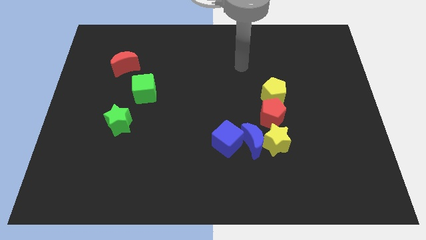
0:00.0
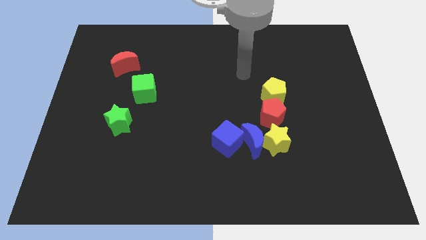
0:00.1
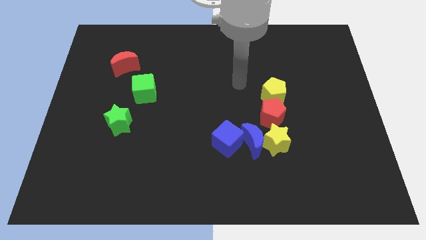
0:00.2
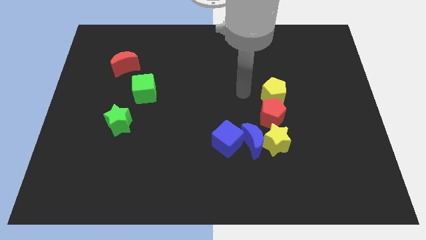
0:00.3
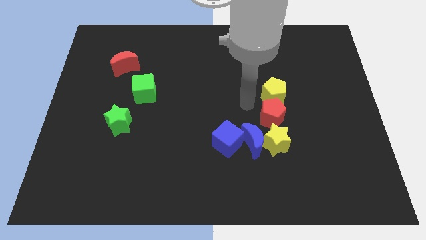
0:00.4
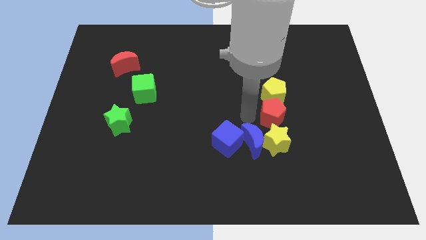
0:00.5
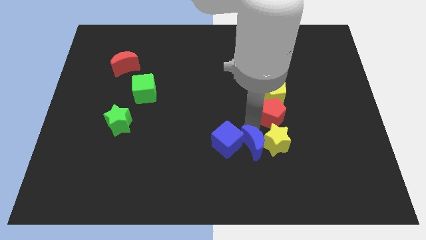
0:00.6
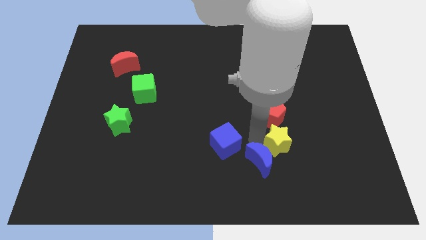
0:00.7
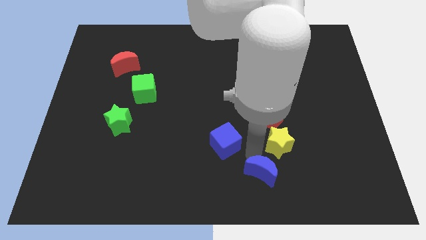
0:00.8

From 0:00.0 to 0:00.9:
move the blue cube away from the blue moon

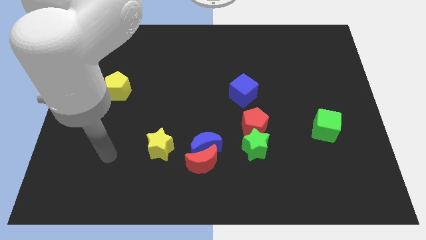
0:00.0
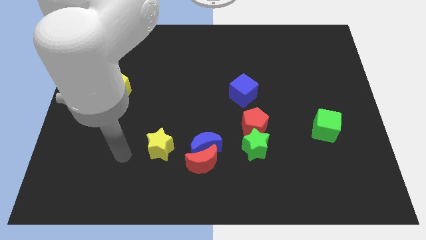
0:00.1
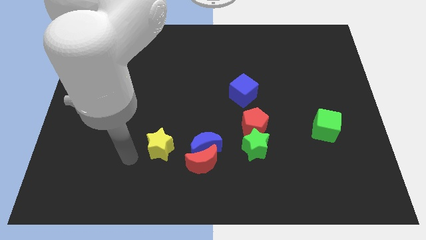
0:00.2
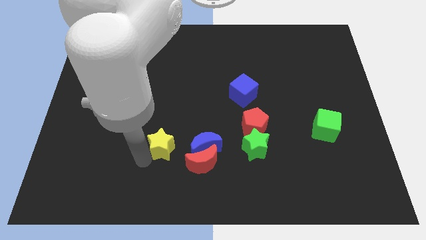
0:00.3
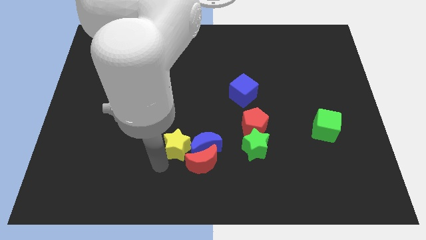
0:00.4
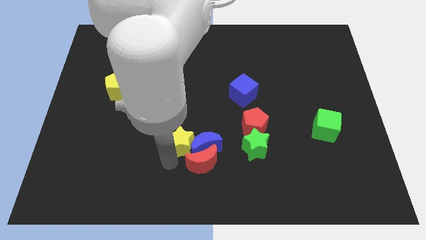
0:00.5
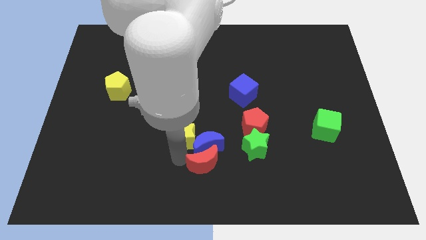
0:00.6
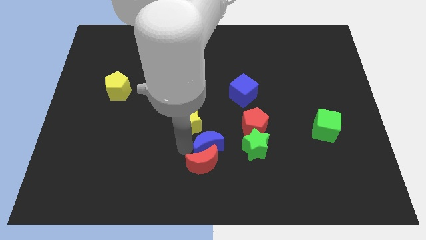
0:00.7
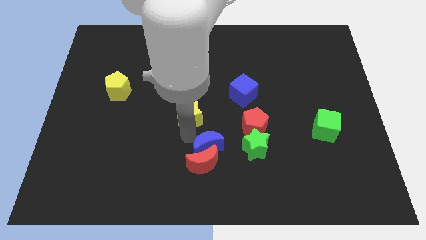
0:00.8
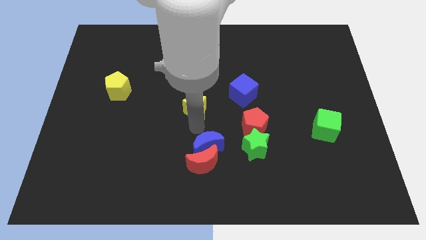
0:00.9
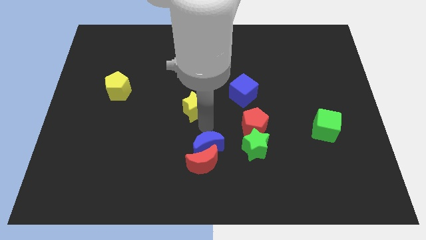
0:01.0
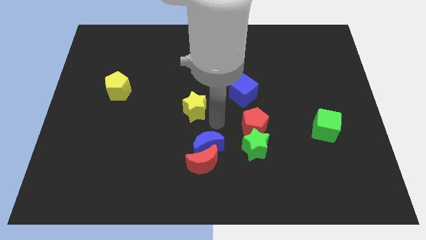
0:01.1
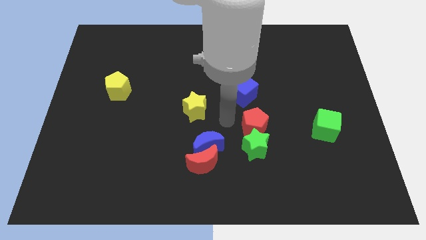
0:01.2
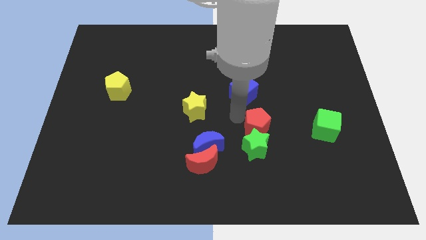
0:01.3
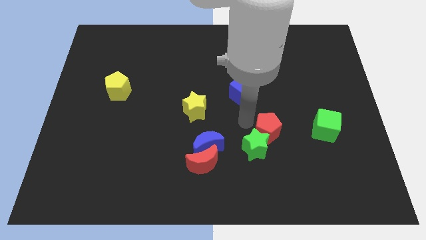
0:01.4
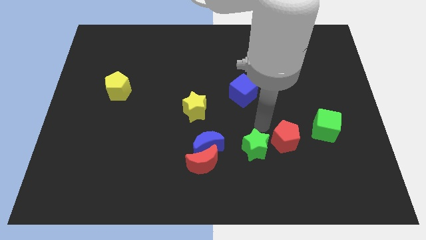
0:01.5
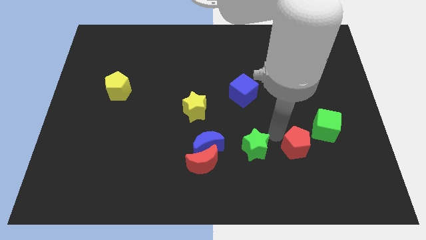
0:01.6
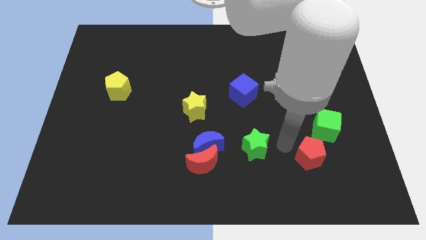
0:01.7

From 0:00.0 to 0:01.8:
move the green star away from the red pentagon

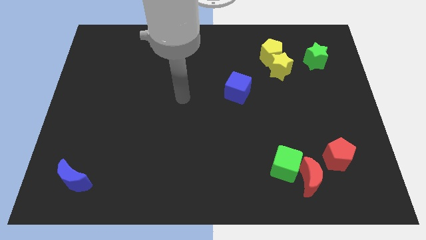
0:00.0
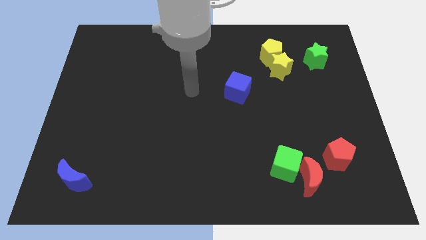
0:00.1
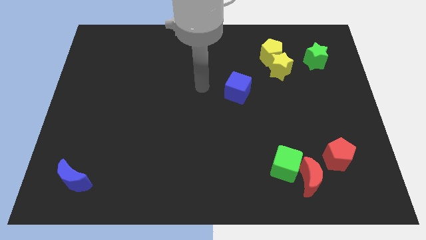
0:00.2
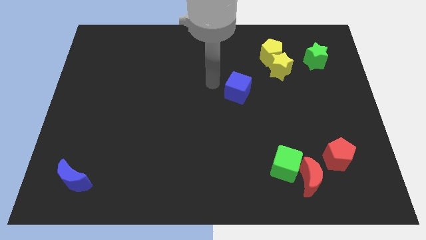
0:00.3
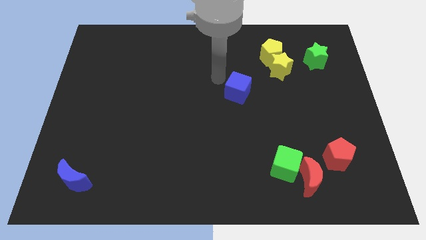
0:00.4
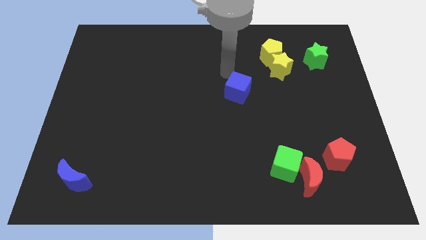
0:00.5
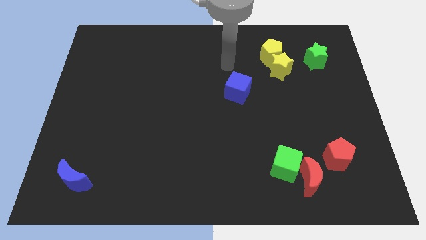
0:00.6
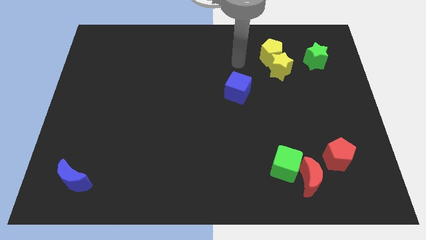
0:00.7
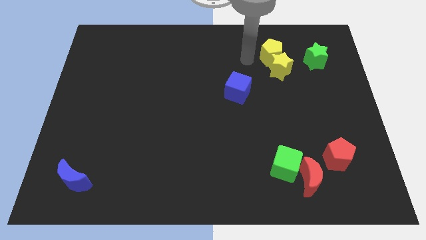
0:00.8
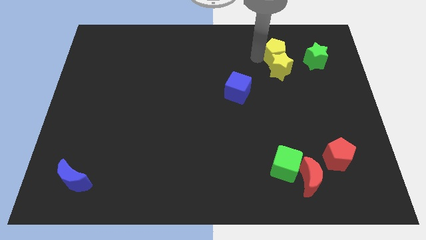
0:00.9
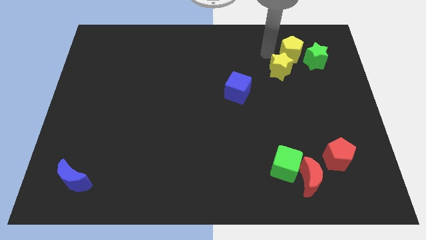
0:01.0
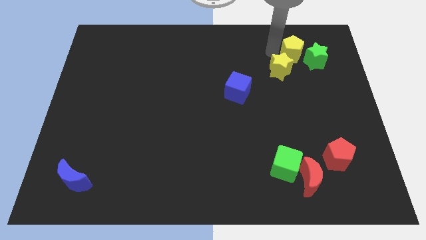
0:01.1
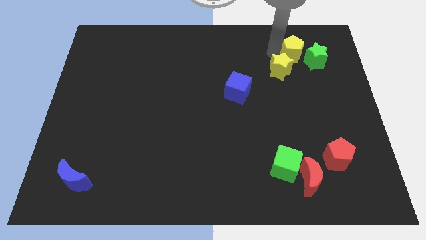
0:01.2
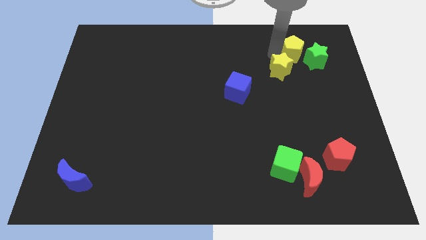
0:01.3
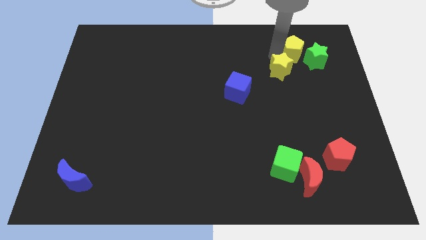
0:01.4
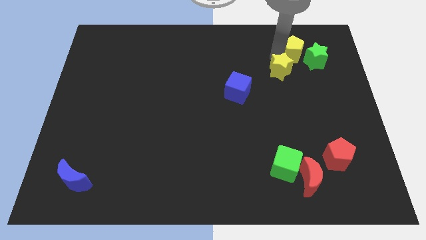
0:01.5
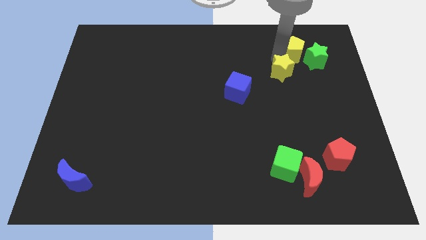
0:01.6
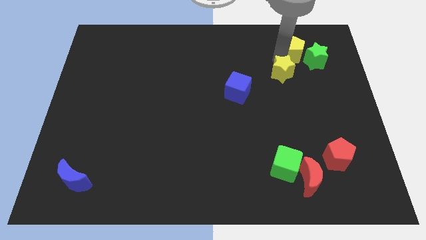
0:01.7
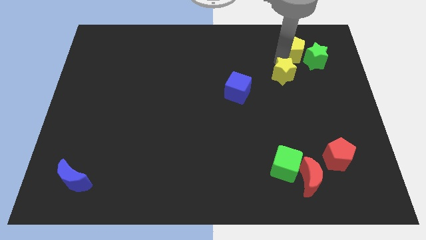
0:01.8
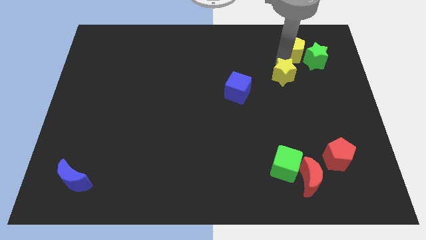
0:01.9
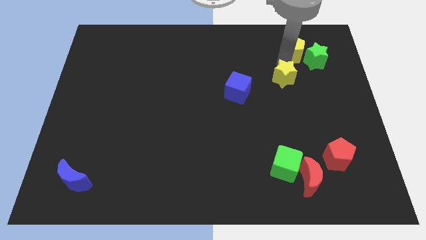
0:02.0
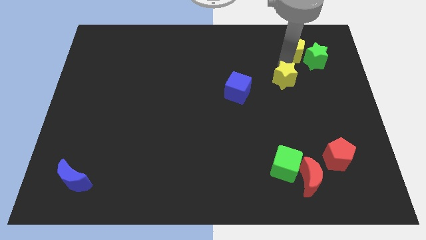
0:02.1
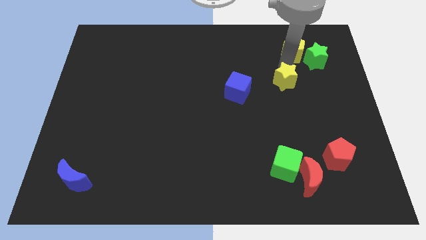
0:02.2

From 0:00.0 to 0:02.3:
pull the yellow star apart from the yellow pentagon

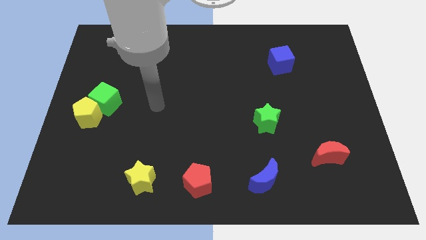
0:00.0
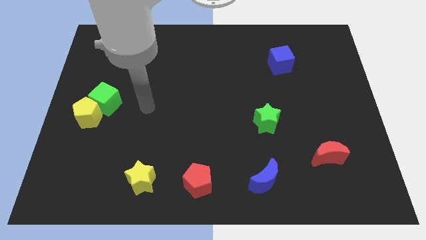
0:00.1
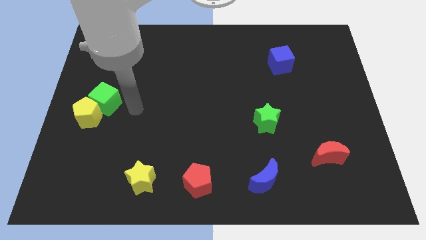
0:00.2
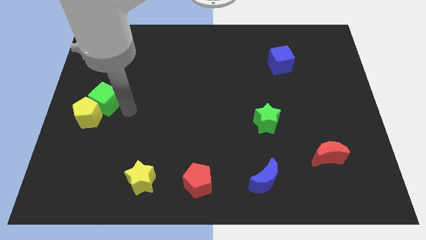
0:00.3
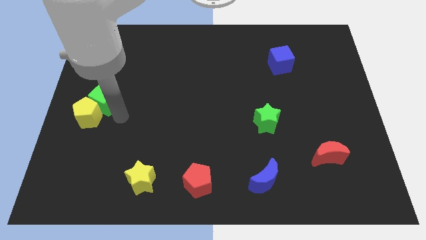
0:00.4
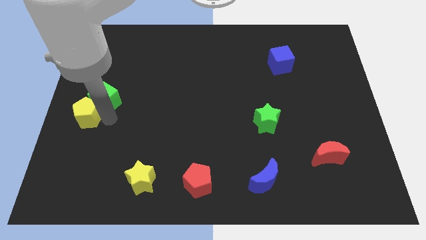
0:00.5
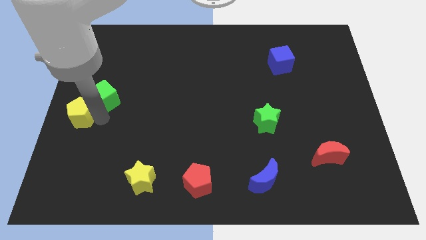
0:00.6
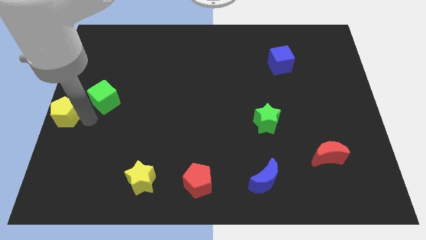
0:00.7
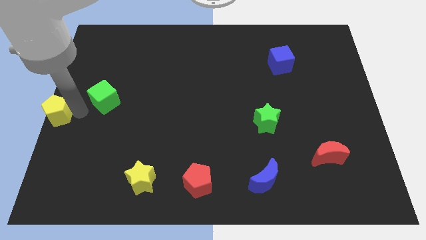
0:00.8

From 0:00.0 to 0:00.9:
move the green cube away from the yellow pentagon

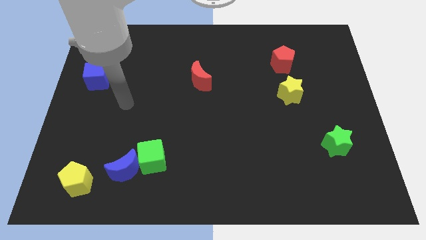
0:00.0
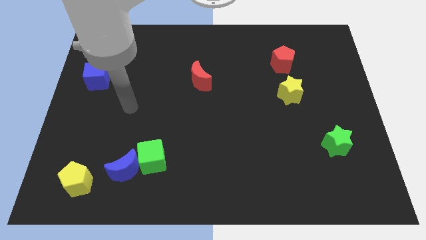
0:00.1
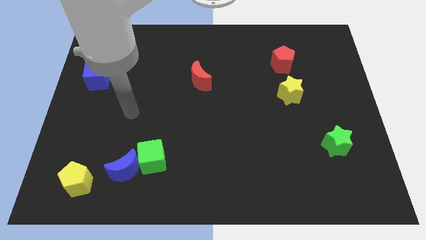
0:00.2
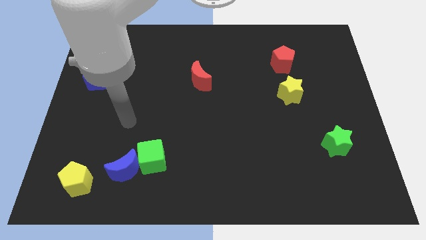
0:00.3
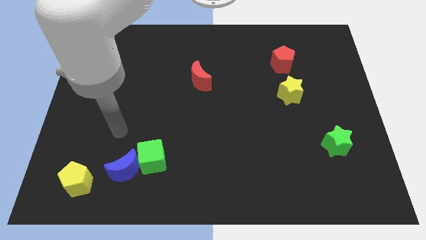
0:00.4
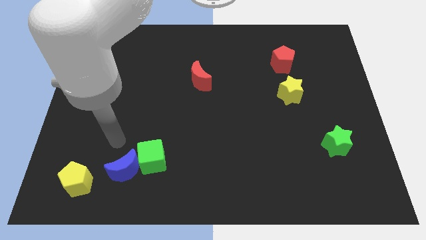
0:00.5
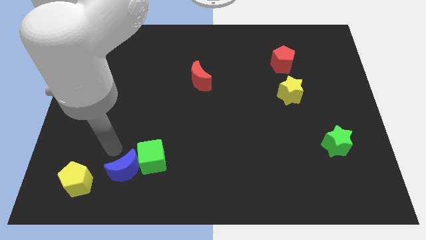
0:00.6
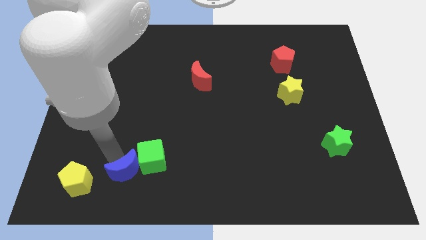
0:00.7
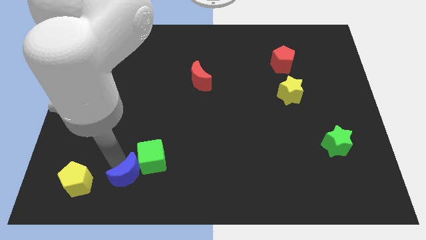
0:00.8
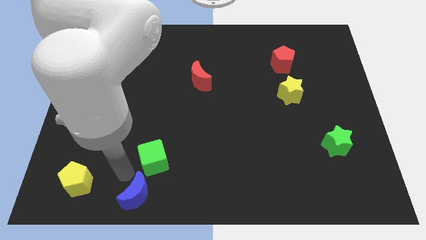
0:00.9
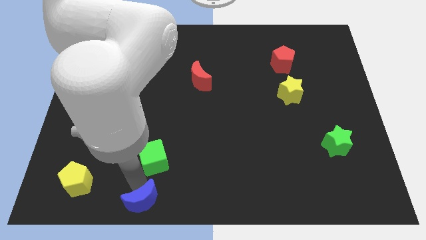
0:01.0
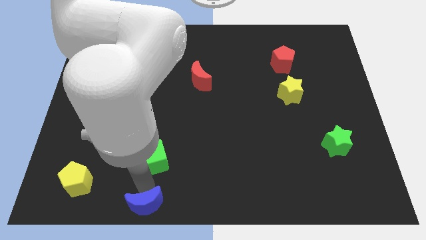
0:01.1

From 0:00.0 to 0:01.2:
move the green cube away from the blue moon

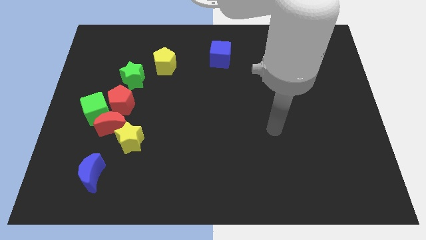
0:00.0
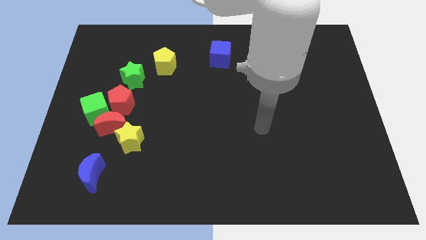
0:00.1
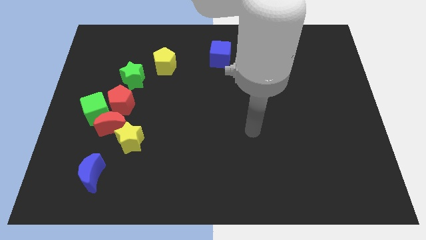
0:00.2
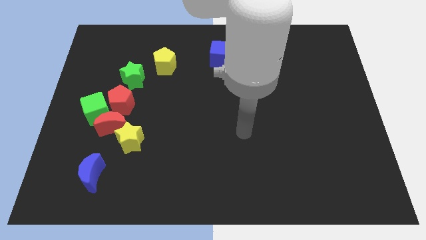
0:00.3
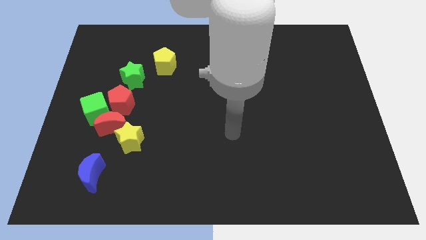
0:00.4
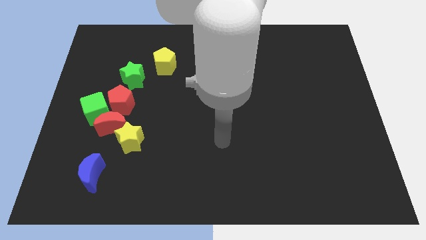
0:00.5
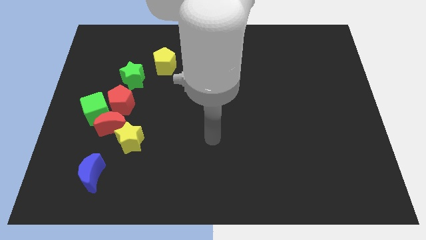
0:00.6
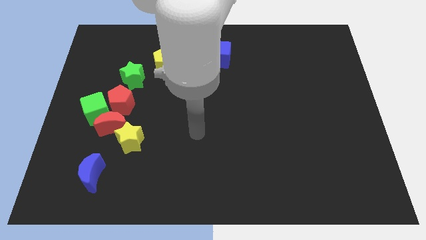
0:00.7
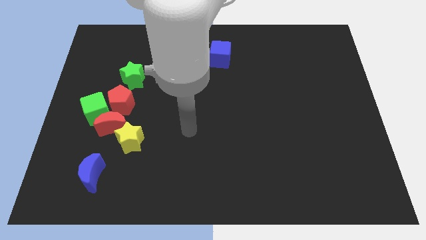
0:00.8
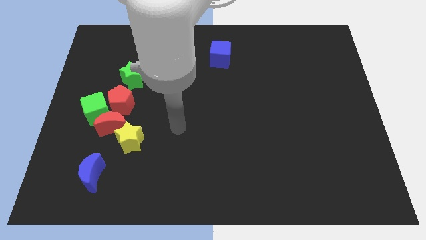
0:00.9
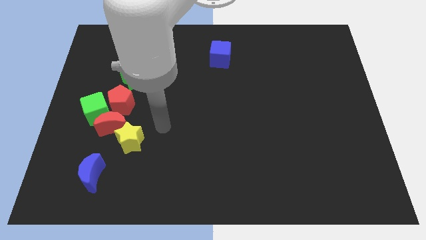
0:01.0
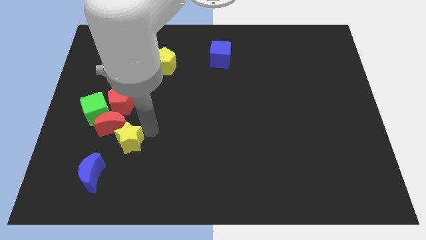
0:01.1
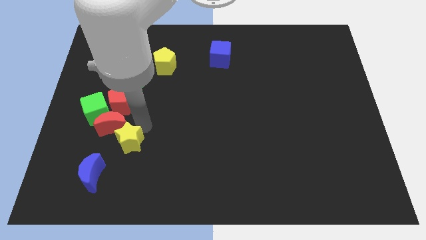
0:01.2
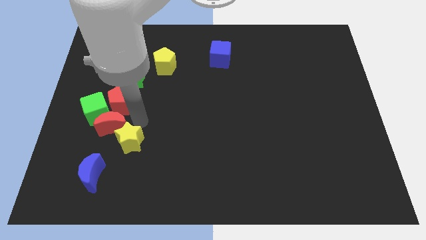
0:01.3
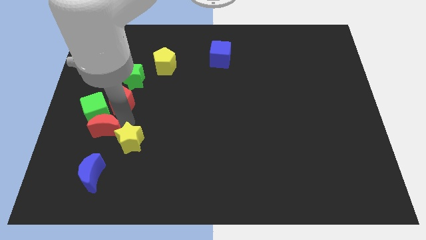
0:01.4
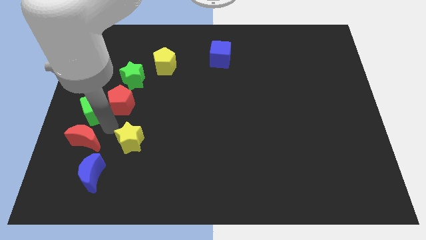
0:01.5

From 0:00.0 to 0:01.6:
separate the yellow star from the red moon

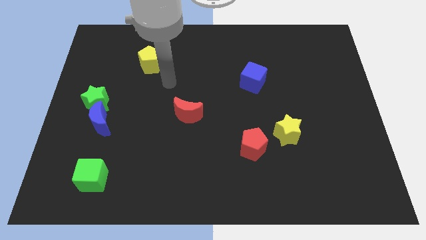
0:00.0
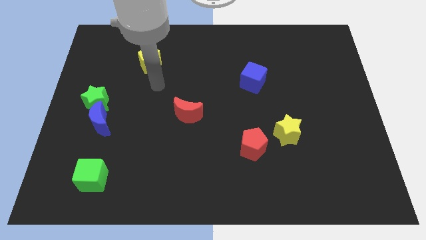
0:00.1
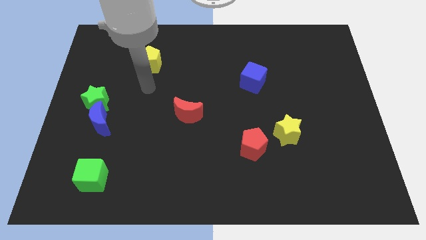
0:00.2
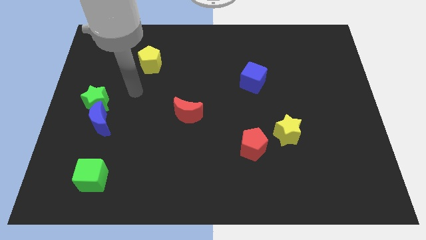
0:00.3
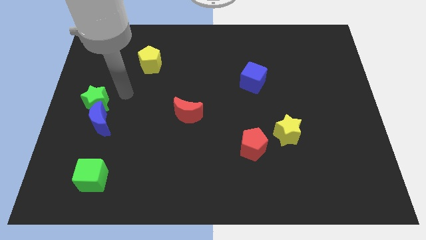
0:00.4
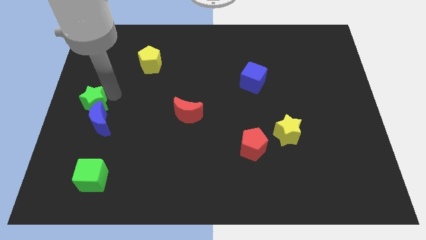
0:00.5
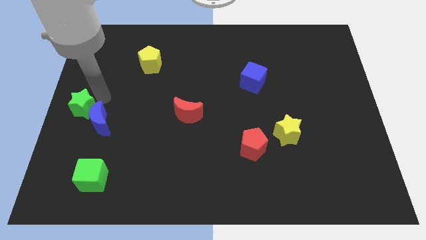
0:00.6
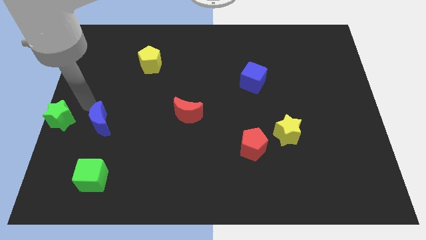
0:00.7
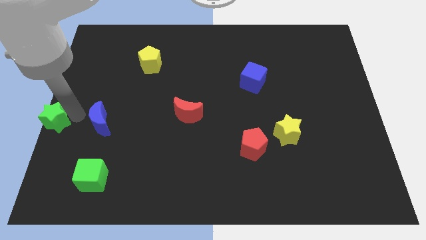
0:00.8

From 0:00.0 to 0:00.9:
separate the blue moon from the green star
